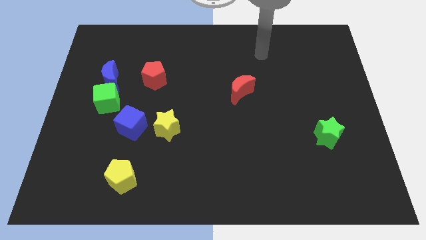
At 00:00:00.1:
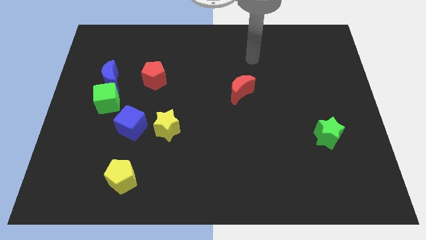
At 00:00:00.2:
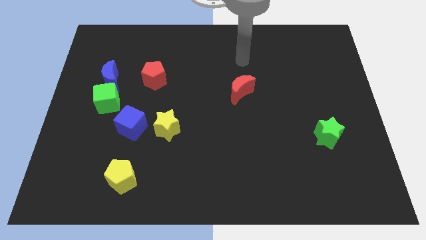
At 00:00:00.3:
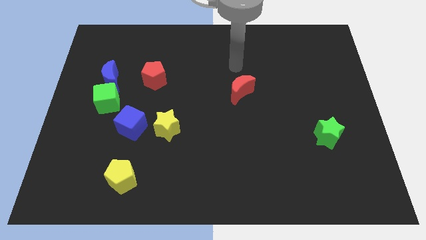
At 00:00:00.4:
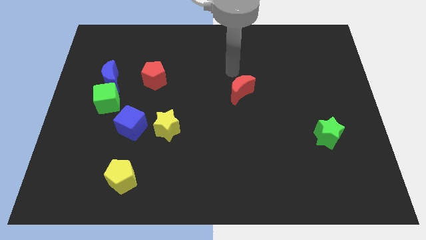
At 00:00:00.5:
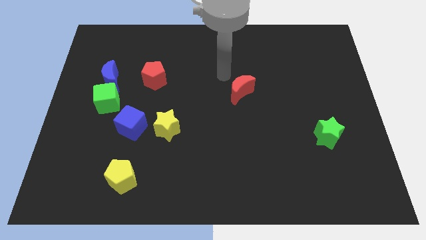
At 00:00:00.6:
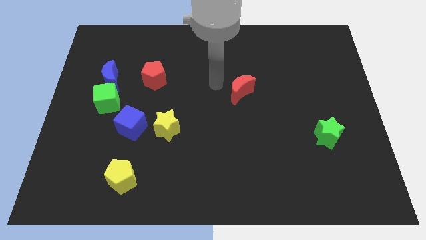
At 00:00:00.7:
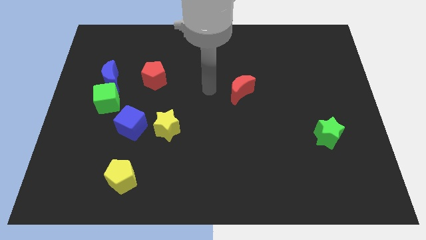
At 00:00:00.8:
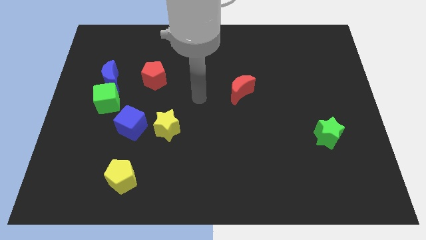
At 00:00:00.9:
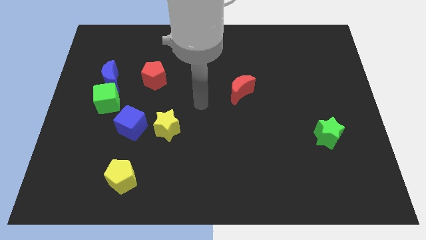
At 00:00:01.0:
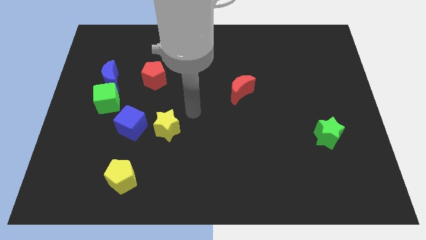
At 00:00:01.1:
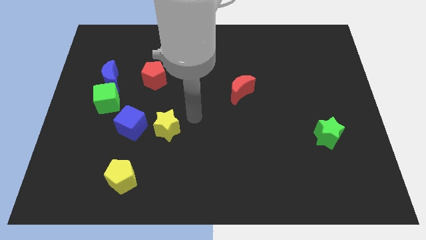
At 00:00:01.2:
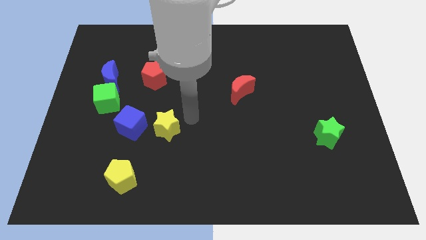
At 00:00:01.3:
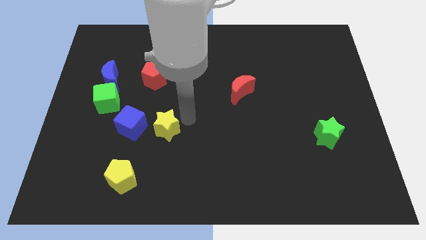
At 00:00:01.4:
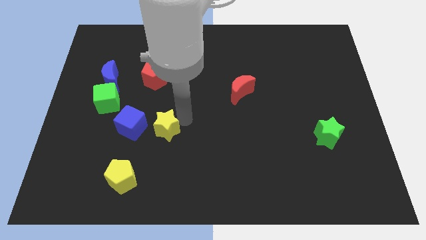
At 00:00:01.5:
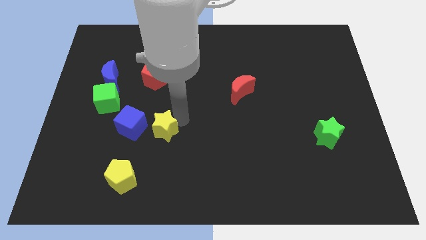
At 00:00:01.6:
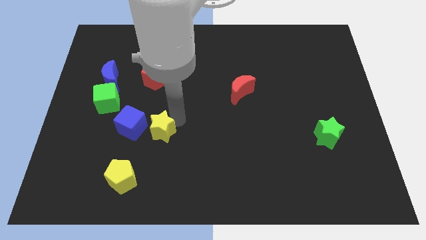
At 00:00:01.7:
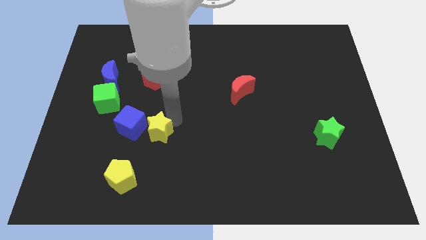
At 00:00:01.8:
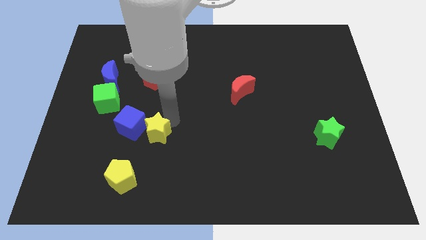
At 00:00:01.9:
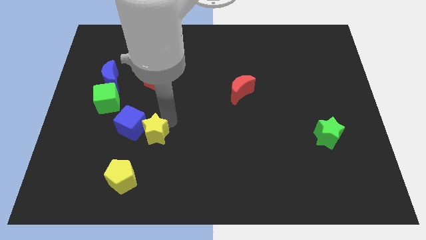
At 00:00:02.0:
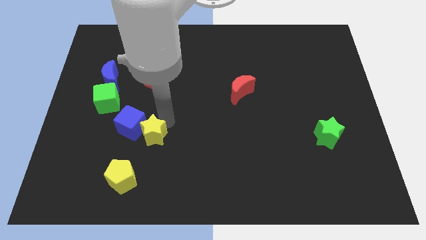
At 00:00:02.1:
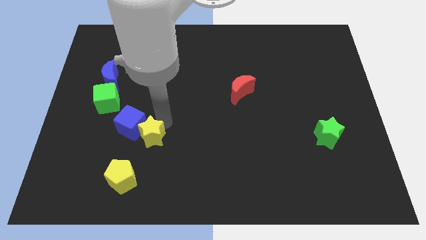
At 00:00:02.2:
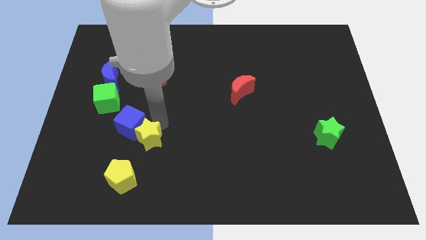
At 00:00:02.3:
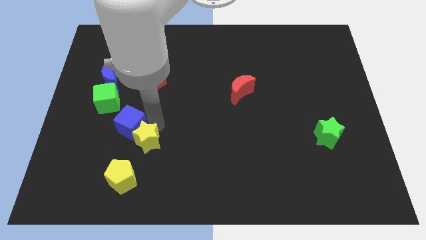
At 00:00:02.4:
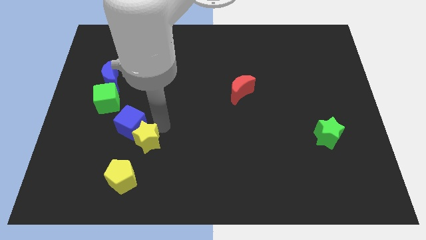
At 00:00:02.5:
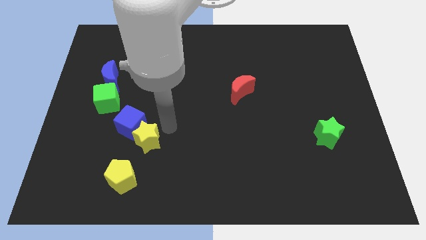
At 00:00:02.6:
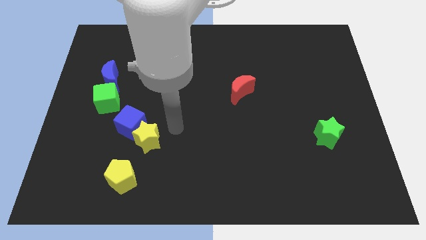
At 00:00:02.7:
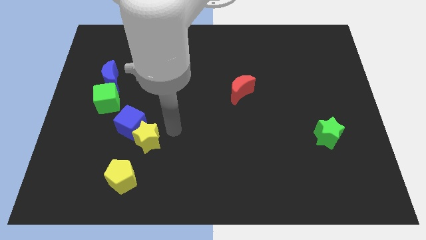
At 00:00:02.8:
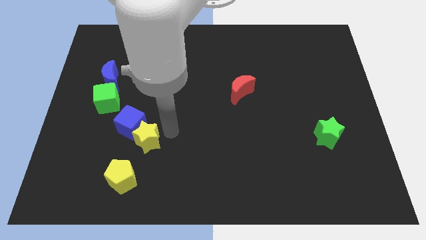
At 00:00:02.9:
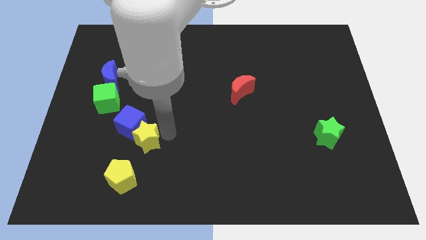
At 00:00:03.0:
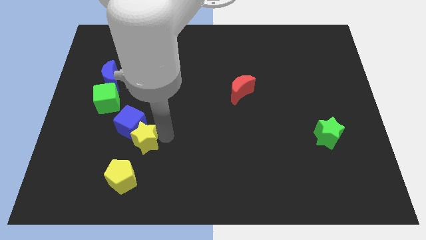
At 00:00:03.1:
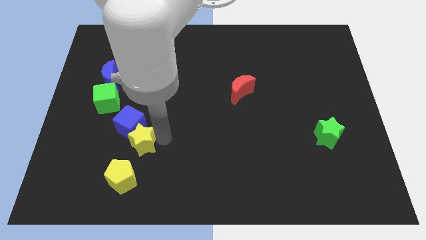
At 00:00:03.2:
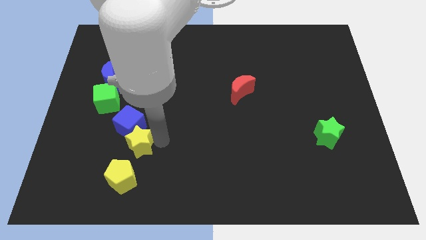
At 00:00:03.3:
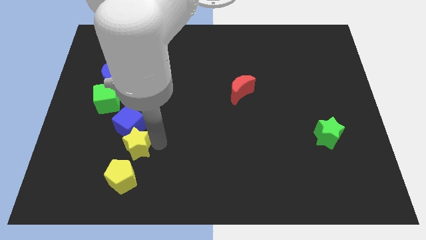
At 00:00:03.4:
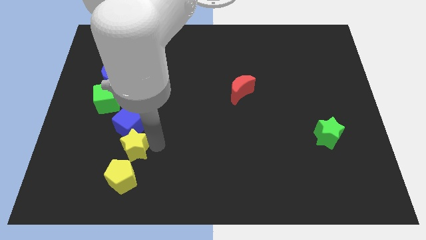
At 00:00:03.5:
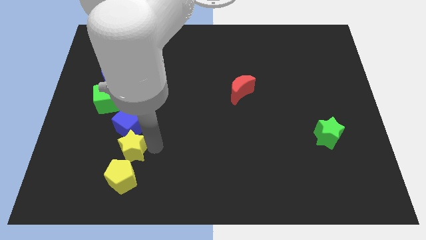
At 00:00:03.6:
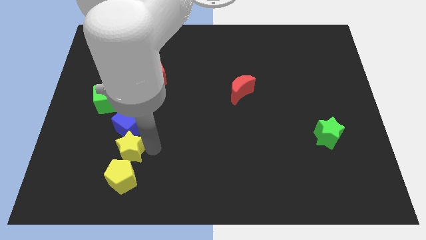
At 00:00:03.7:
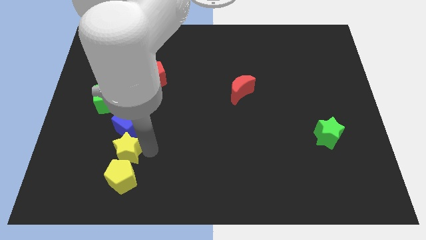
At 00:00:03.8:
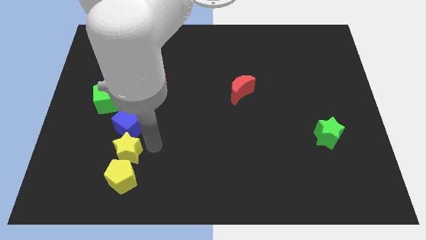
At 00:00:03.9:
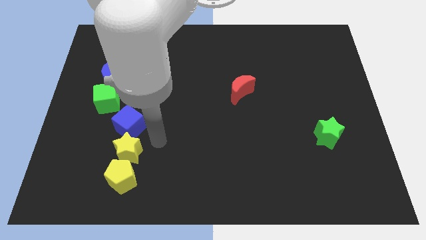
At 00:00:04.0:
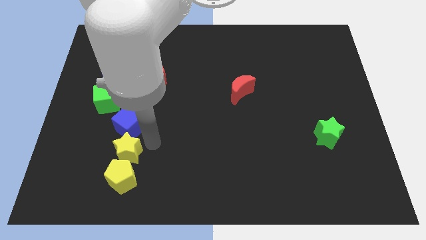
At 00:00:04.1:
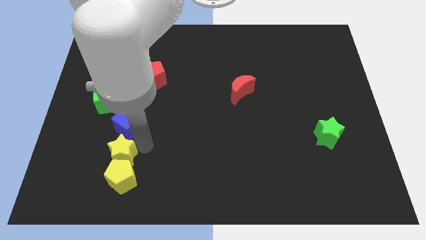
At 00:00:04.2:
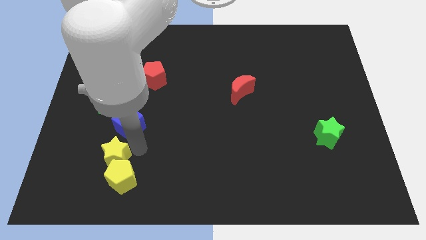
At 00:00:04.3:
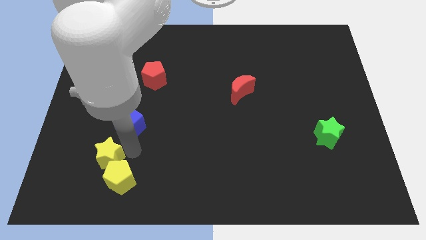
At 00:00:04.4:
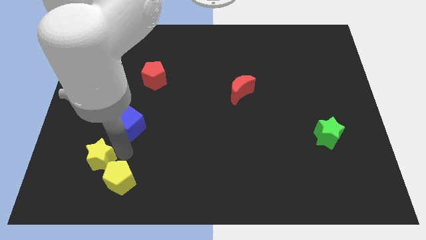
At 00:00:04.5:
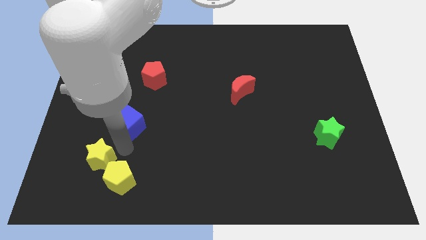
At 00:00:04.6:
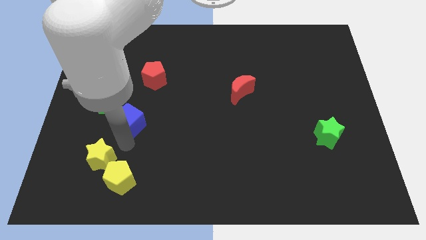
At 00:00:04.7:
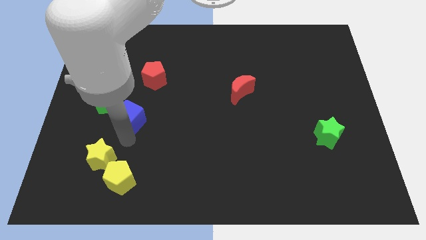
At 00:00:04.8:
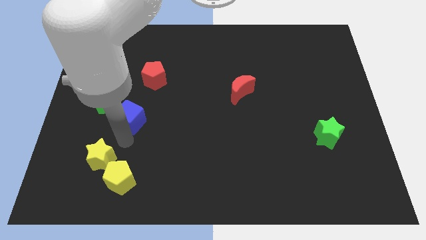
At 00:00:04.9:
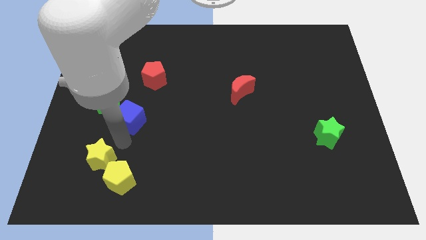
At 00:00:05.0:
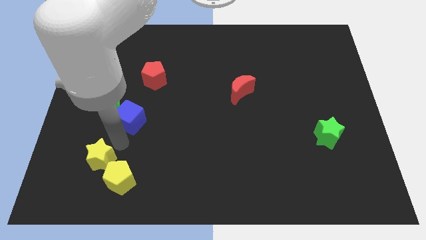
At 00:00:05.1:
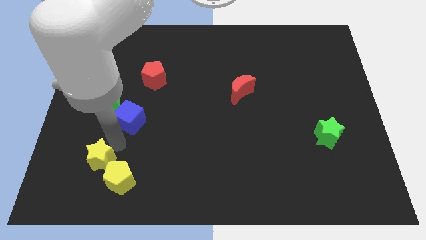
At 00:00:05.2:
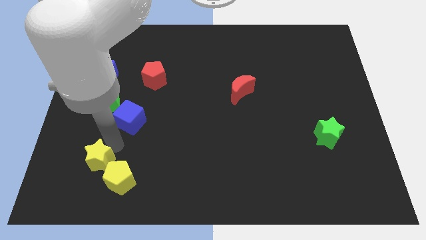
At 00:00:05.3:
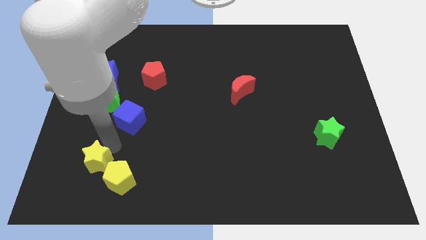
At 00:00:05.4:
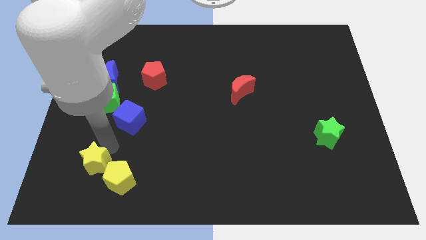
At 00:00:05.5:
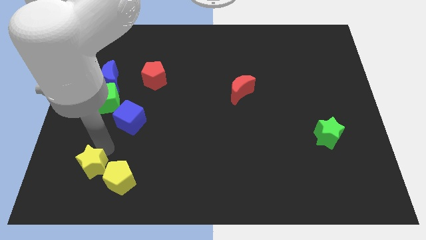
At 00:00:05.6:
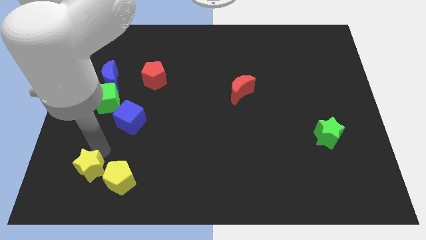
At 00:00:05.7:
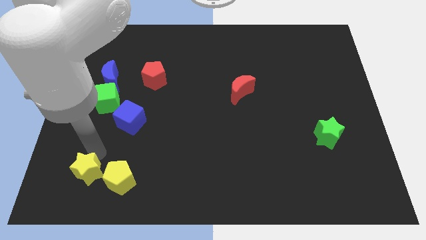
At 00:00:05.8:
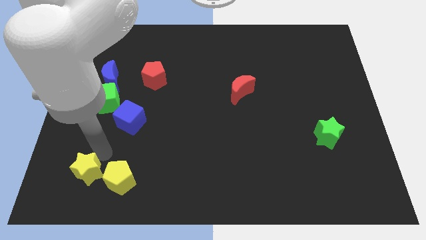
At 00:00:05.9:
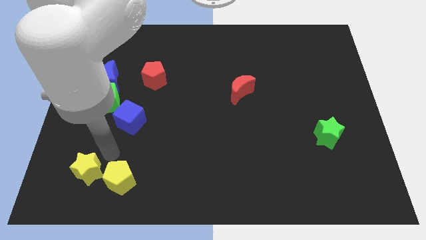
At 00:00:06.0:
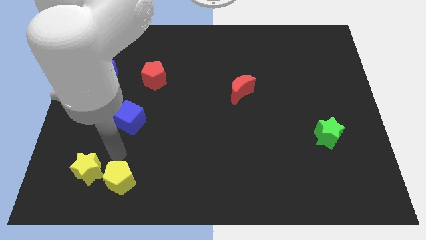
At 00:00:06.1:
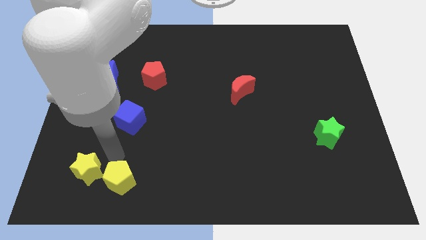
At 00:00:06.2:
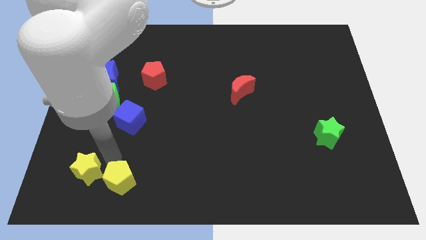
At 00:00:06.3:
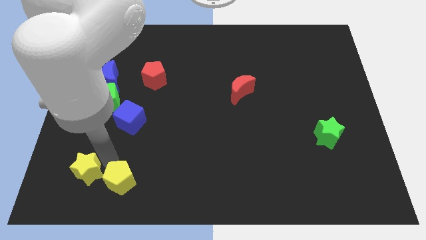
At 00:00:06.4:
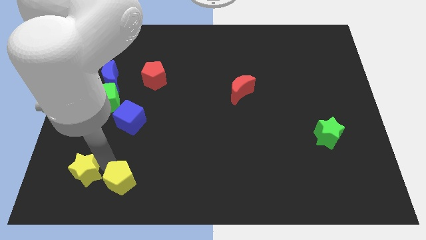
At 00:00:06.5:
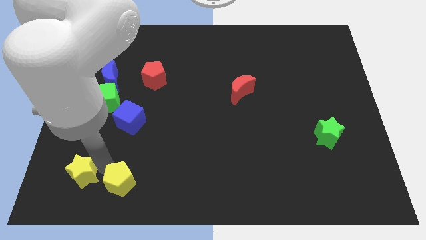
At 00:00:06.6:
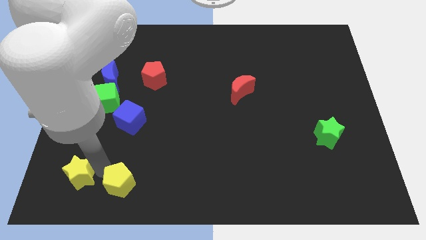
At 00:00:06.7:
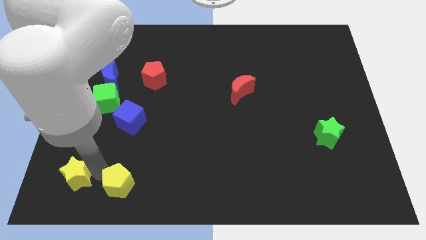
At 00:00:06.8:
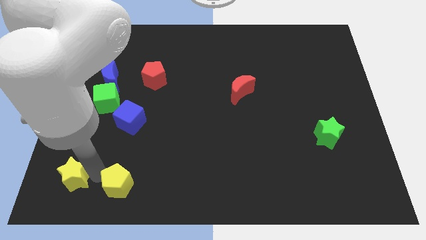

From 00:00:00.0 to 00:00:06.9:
slide the yellow star to the bottom left

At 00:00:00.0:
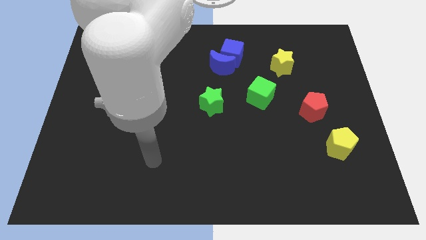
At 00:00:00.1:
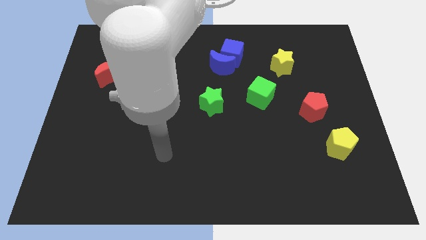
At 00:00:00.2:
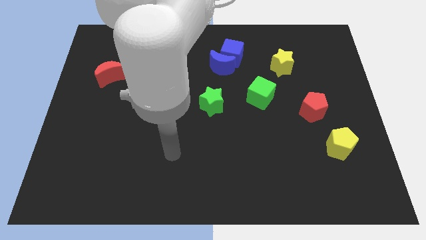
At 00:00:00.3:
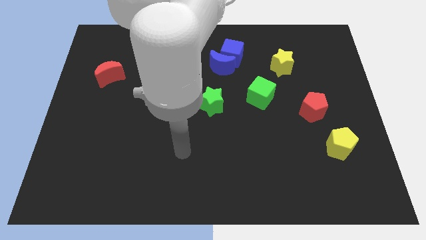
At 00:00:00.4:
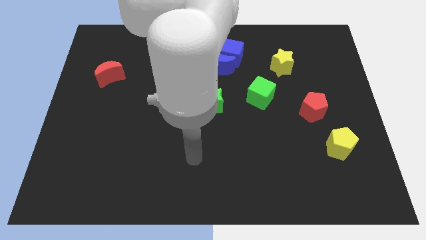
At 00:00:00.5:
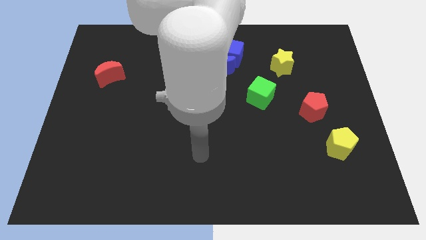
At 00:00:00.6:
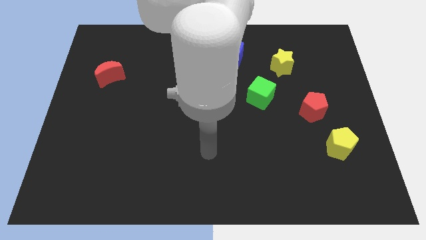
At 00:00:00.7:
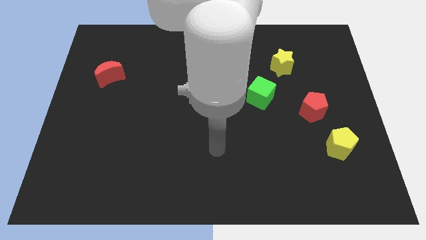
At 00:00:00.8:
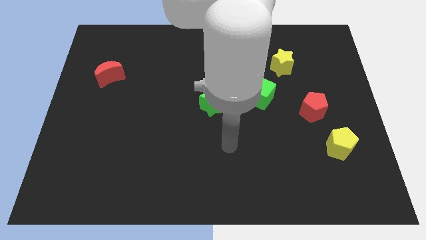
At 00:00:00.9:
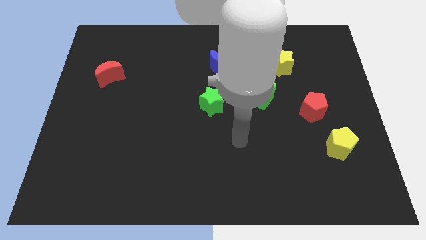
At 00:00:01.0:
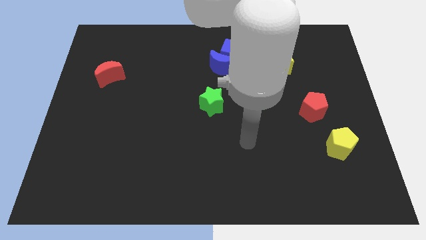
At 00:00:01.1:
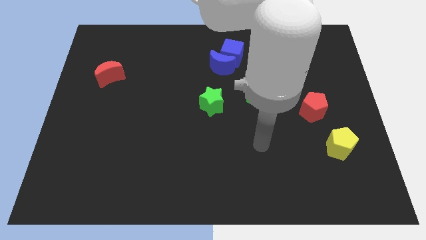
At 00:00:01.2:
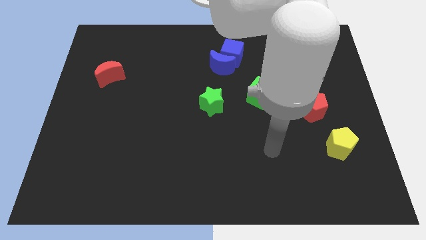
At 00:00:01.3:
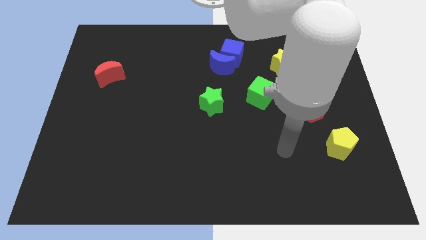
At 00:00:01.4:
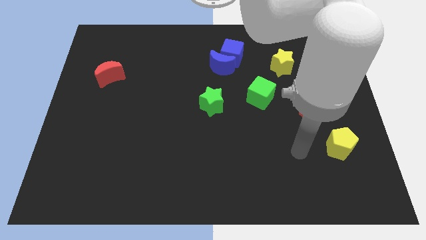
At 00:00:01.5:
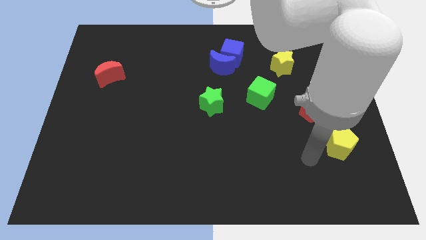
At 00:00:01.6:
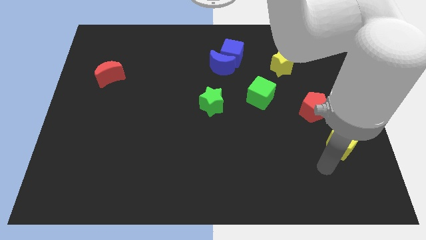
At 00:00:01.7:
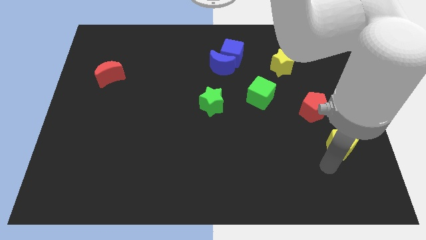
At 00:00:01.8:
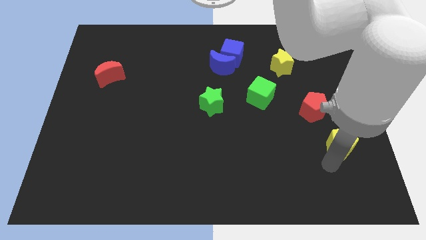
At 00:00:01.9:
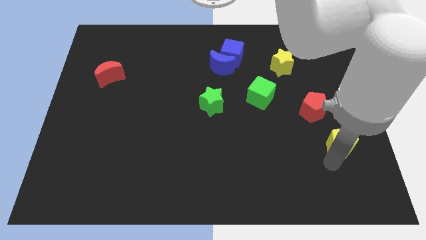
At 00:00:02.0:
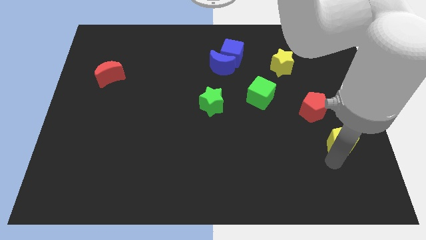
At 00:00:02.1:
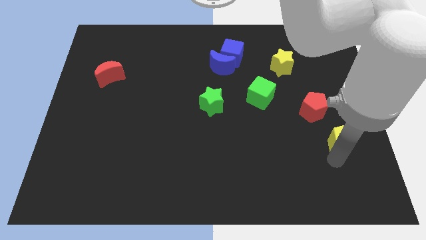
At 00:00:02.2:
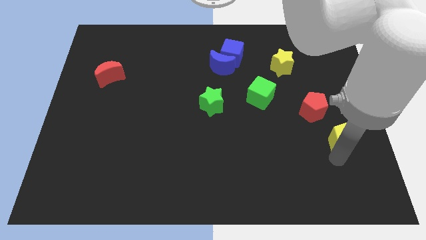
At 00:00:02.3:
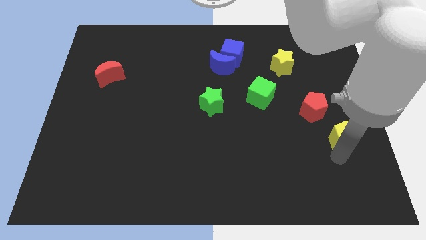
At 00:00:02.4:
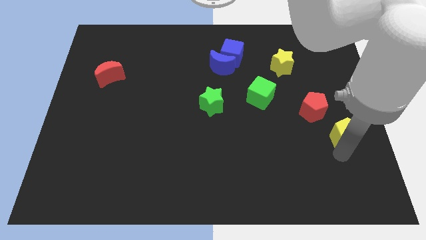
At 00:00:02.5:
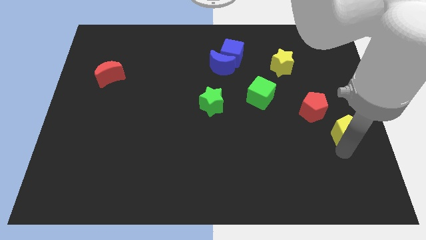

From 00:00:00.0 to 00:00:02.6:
slide the yellow pentagon to the right side of the board
